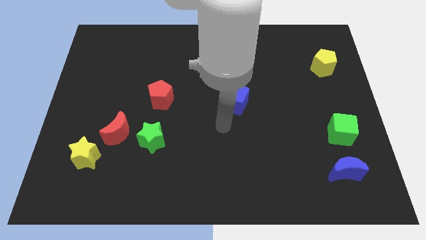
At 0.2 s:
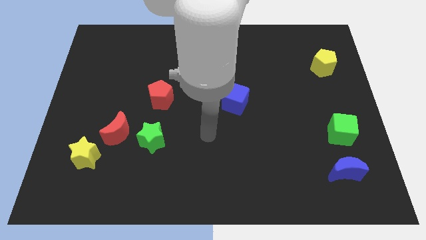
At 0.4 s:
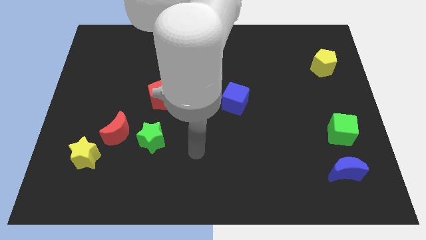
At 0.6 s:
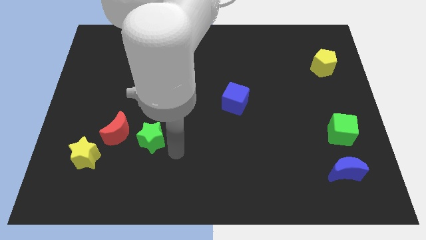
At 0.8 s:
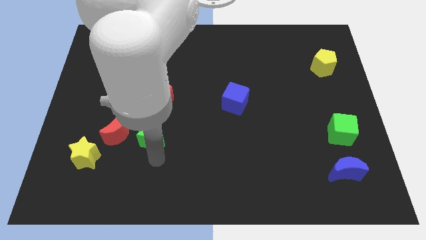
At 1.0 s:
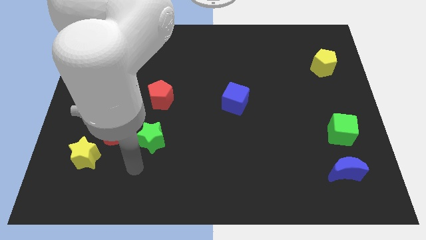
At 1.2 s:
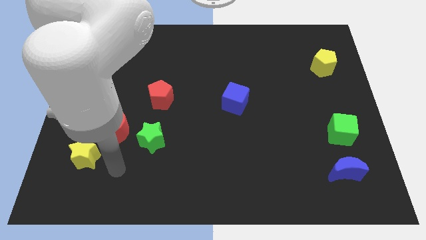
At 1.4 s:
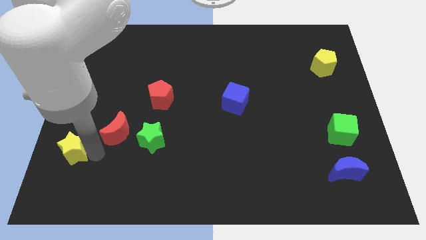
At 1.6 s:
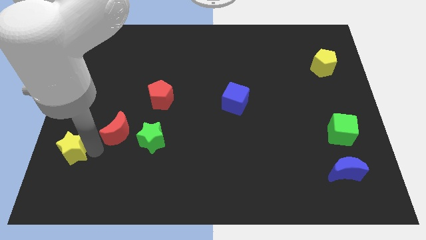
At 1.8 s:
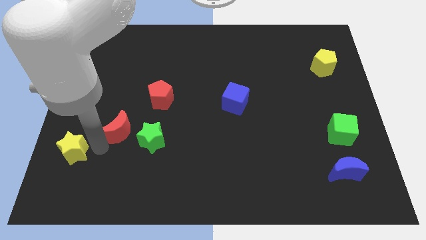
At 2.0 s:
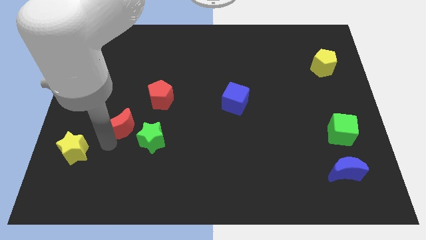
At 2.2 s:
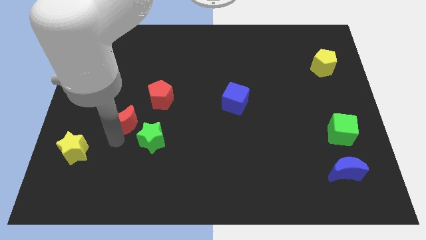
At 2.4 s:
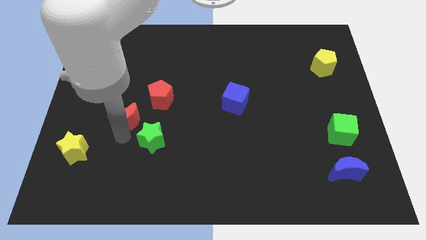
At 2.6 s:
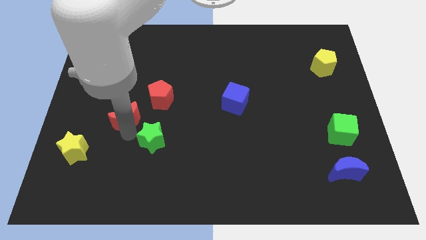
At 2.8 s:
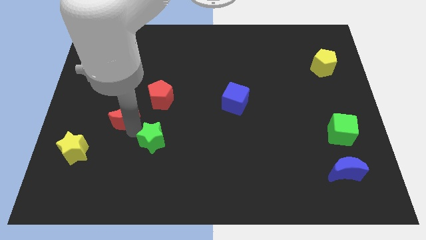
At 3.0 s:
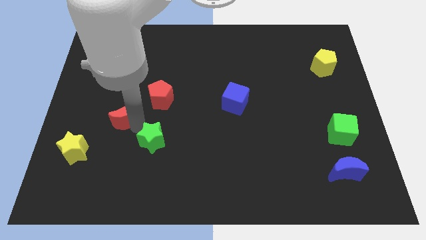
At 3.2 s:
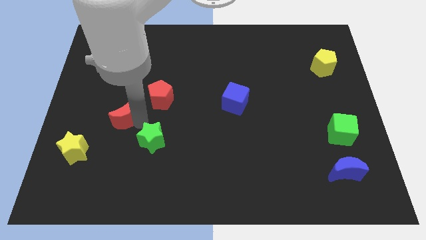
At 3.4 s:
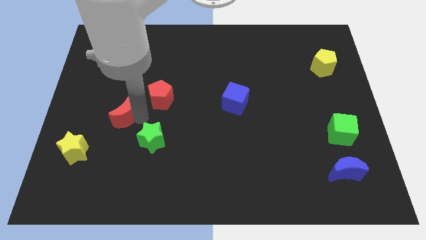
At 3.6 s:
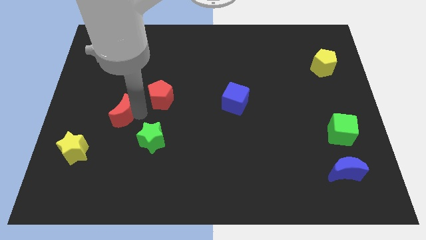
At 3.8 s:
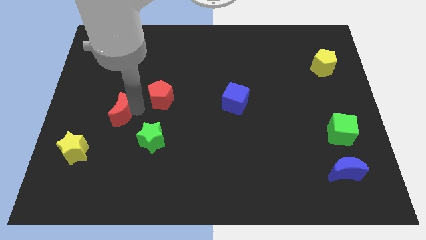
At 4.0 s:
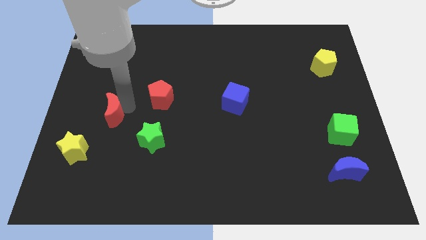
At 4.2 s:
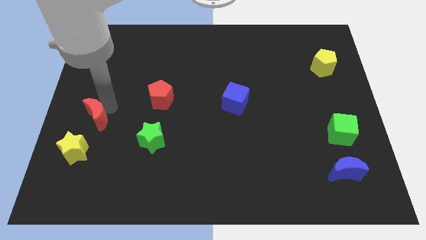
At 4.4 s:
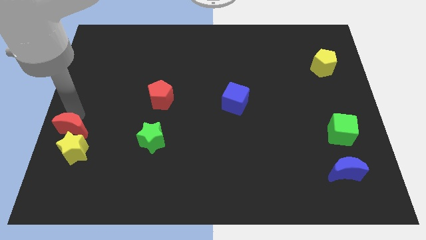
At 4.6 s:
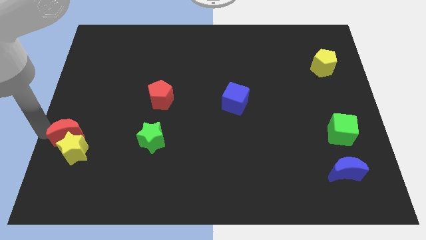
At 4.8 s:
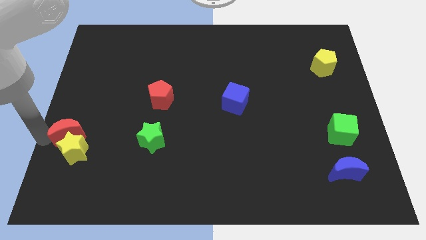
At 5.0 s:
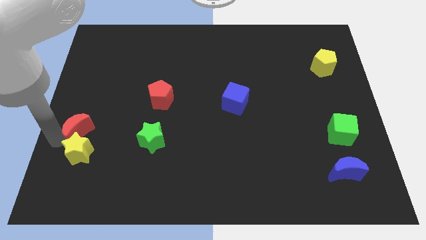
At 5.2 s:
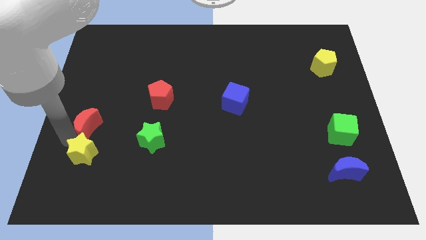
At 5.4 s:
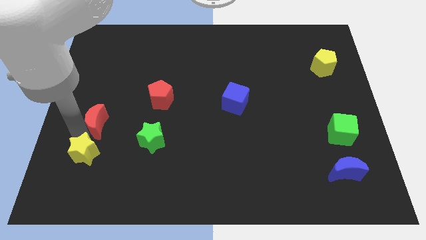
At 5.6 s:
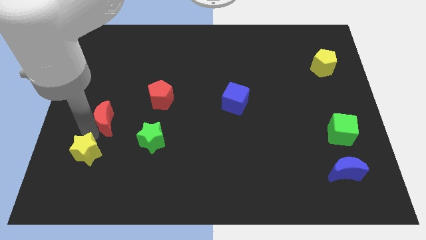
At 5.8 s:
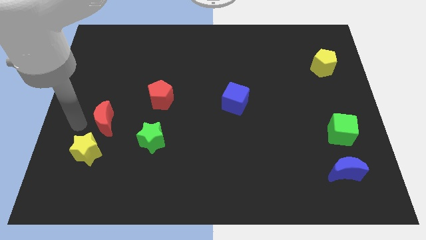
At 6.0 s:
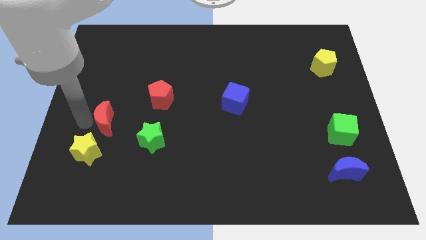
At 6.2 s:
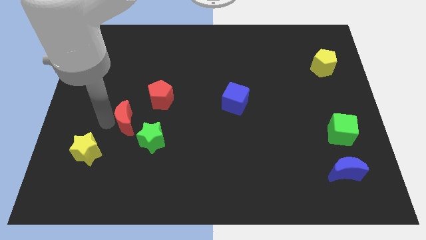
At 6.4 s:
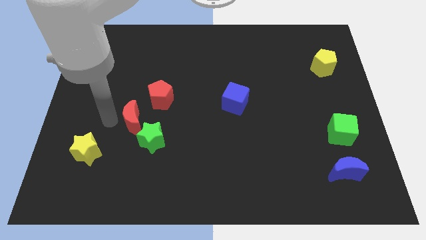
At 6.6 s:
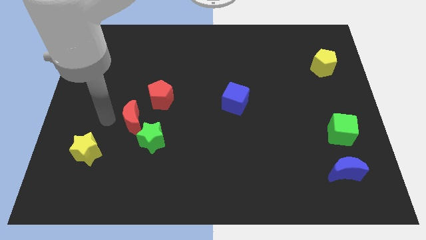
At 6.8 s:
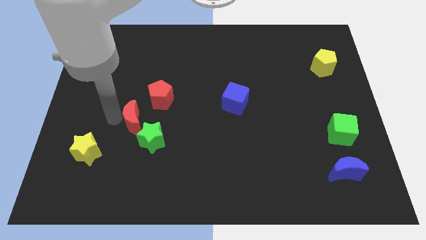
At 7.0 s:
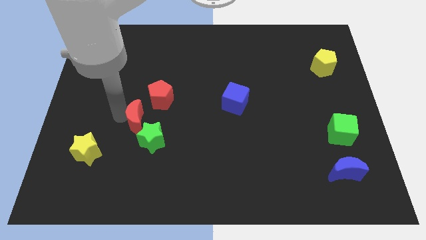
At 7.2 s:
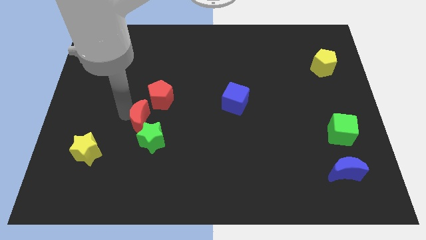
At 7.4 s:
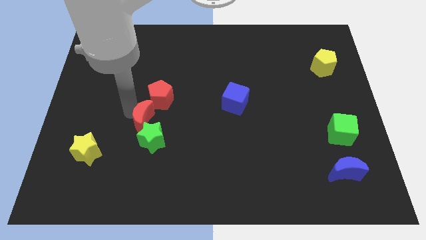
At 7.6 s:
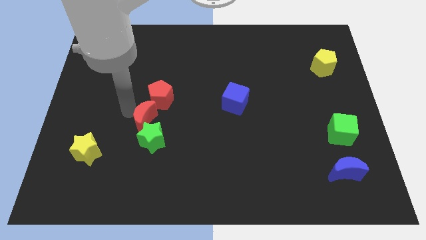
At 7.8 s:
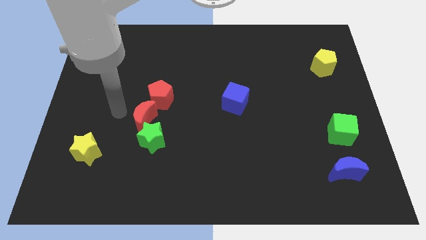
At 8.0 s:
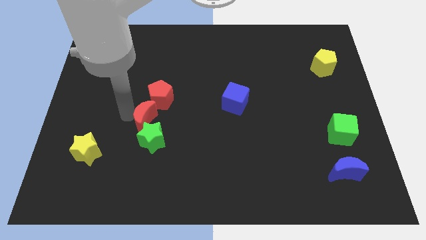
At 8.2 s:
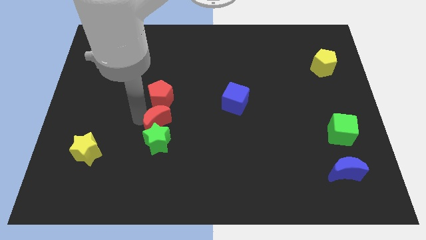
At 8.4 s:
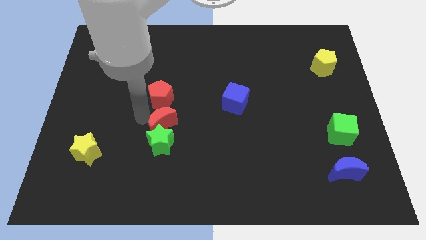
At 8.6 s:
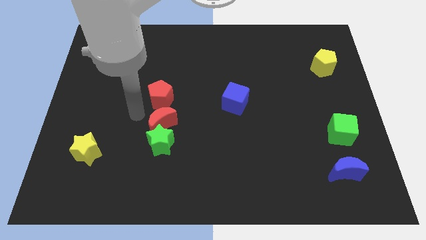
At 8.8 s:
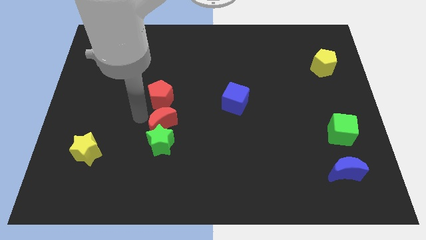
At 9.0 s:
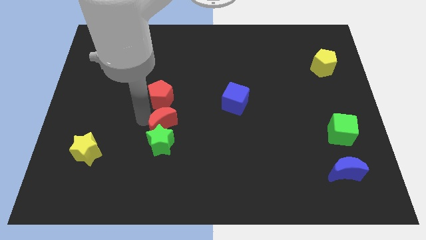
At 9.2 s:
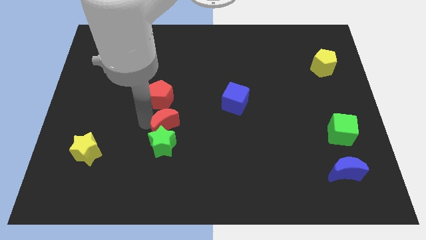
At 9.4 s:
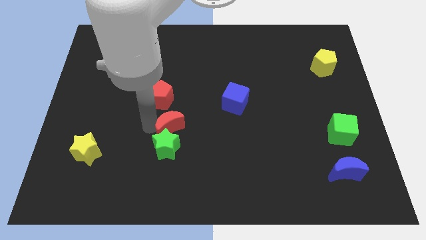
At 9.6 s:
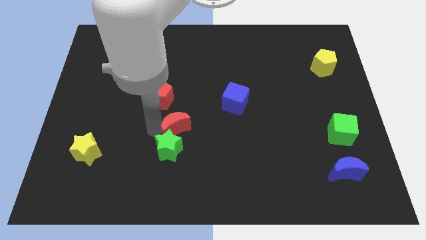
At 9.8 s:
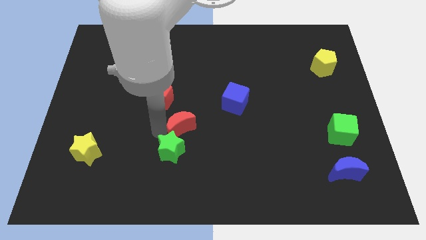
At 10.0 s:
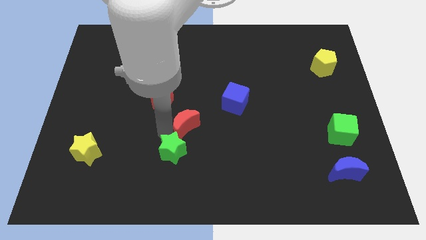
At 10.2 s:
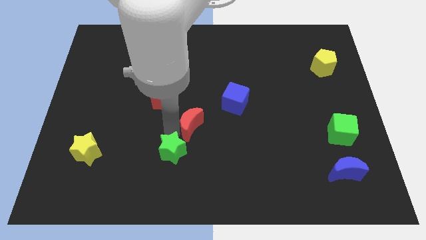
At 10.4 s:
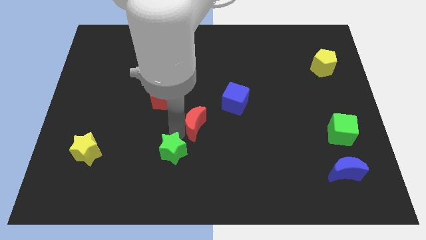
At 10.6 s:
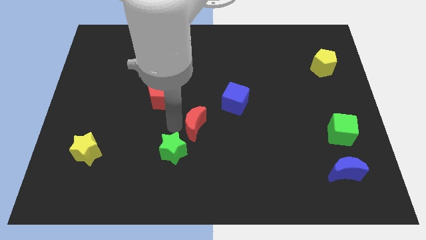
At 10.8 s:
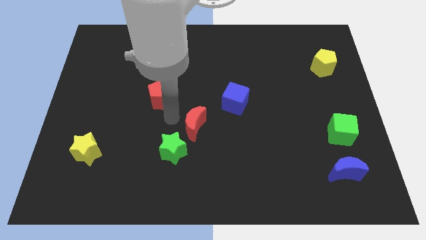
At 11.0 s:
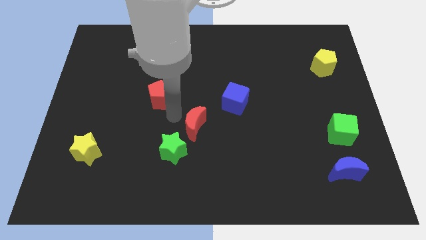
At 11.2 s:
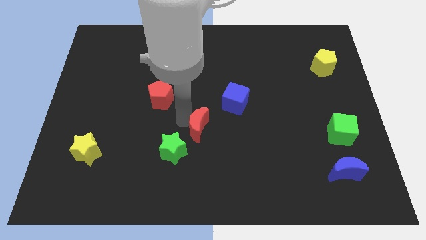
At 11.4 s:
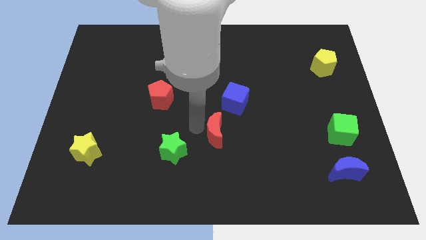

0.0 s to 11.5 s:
push the red moon to the bottom of the blue cube

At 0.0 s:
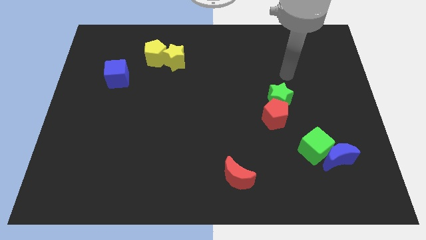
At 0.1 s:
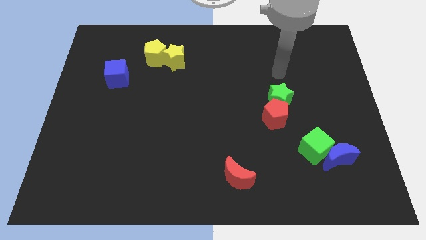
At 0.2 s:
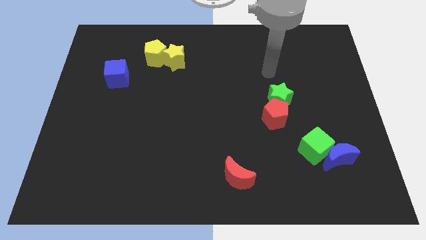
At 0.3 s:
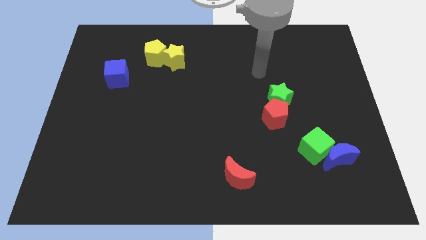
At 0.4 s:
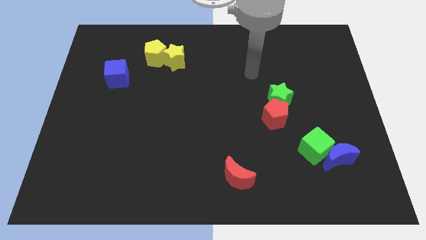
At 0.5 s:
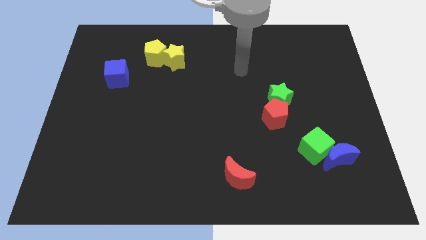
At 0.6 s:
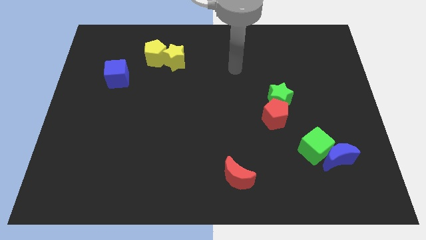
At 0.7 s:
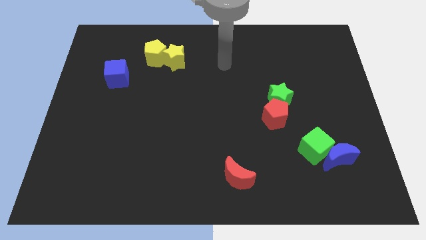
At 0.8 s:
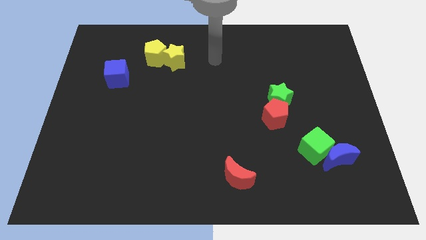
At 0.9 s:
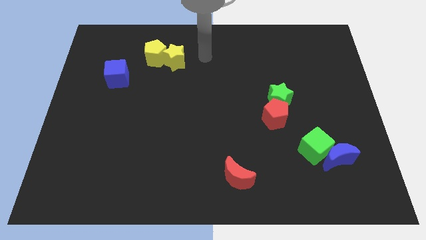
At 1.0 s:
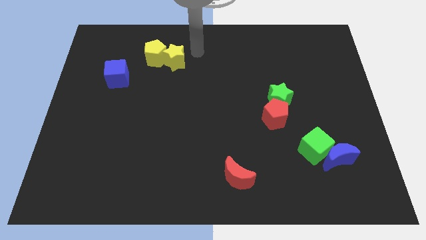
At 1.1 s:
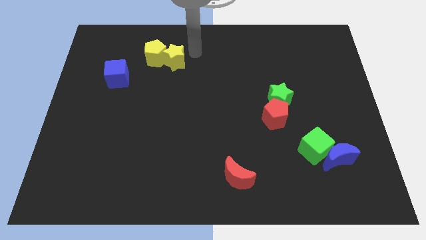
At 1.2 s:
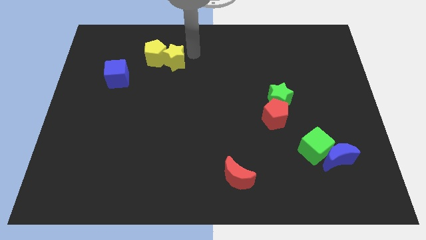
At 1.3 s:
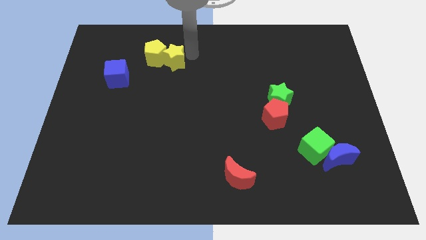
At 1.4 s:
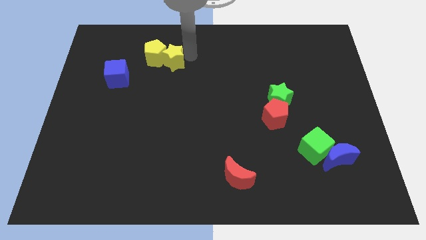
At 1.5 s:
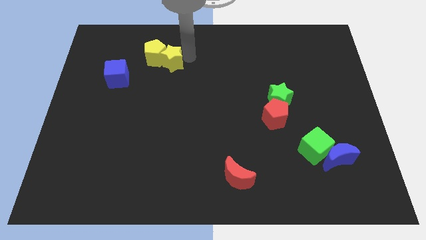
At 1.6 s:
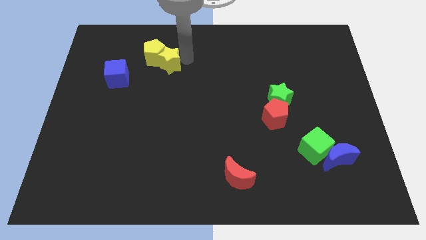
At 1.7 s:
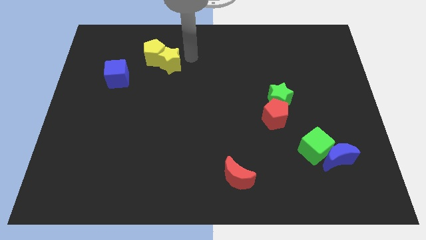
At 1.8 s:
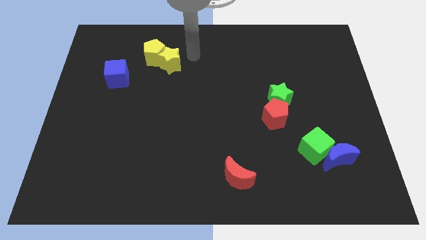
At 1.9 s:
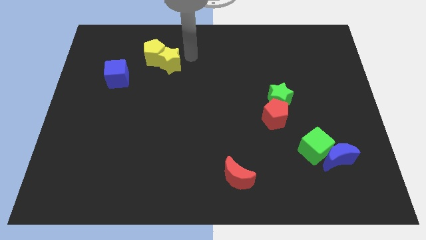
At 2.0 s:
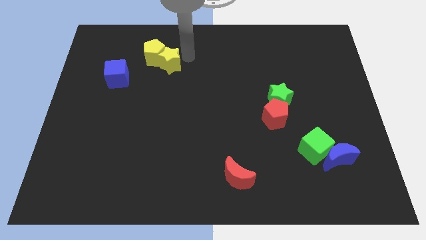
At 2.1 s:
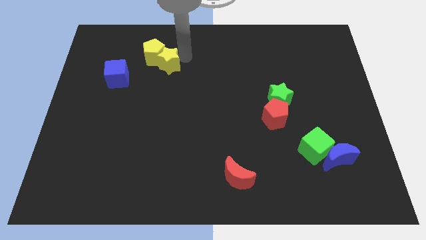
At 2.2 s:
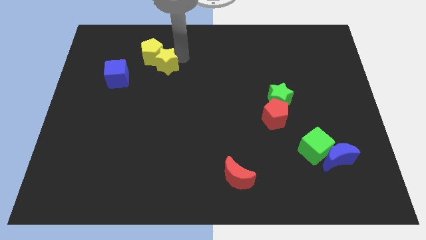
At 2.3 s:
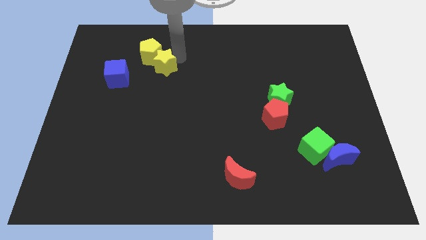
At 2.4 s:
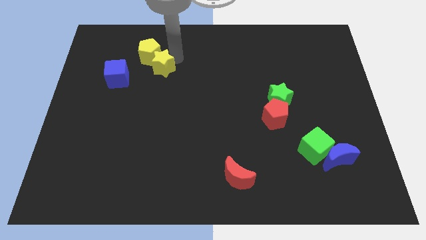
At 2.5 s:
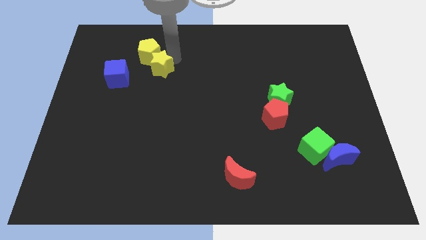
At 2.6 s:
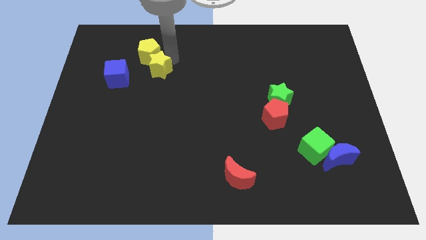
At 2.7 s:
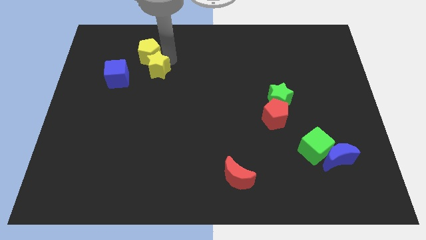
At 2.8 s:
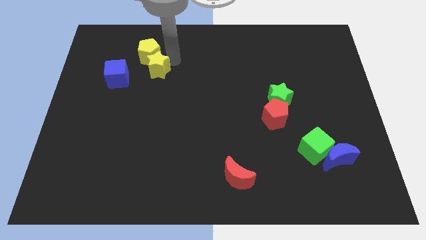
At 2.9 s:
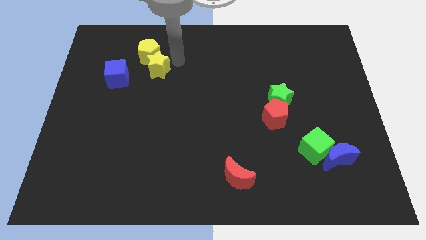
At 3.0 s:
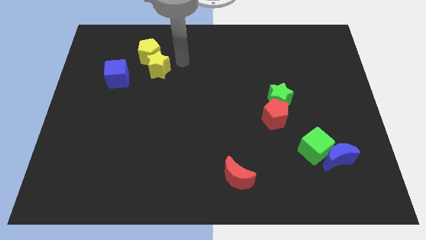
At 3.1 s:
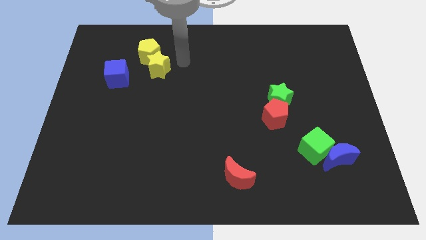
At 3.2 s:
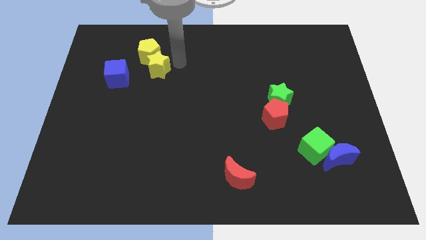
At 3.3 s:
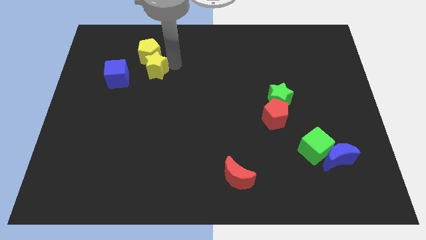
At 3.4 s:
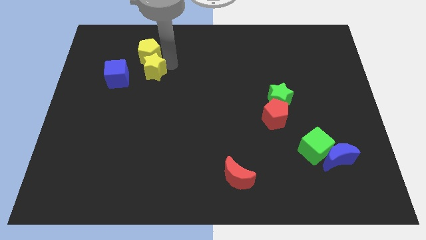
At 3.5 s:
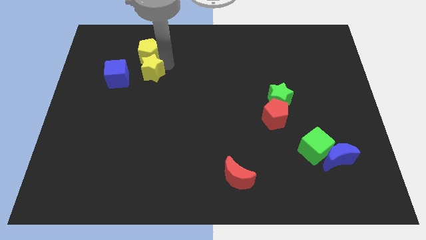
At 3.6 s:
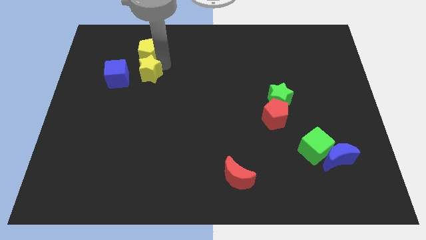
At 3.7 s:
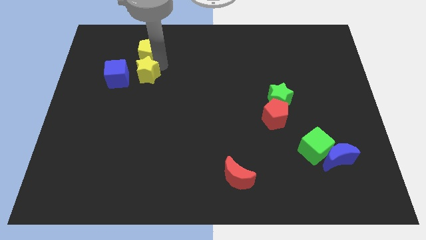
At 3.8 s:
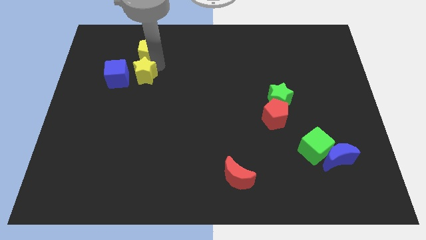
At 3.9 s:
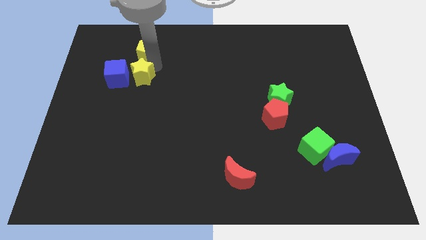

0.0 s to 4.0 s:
slide the yellow star to the bottom right side of the blue cube
